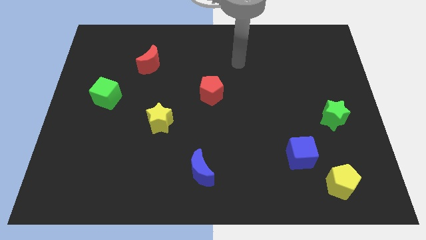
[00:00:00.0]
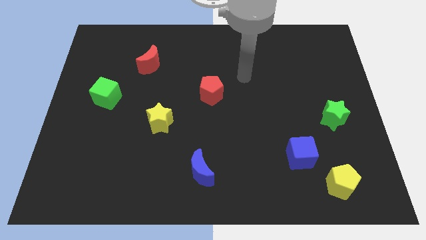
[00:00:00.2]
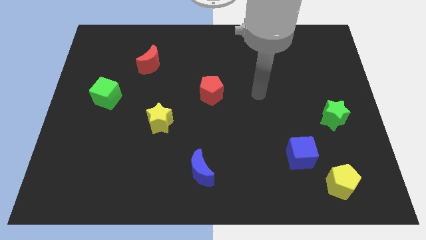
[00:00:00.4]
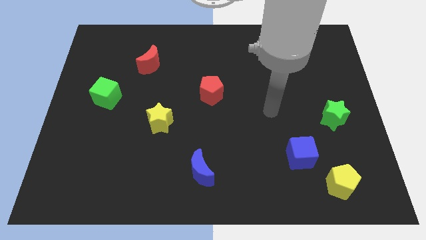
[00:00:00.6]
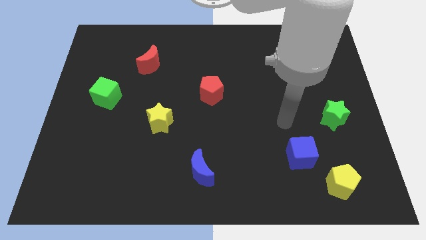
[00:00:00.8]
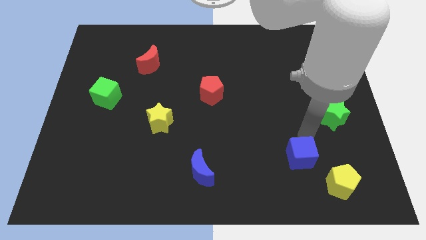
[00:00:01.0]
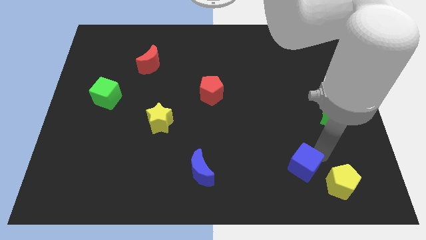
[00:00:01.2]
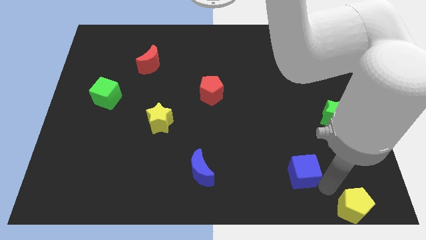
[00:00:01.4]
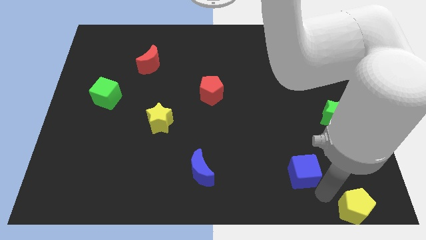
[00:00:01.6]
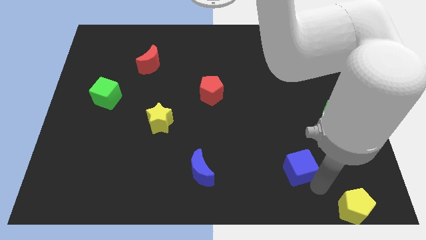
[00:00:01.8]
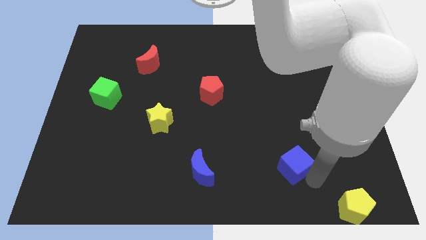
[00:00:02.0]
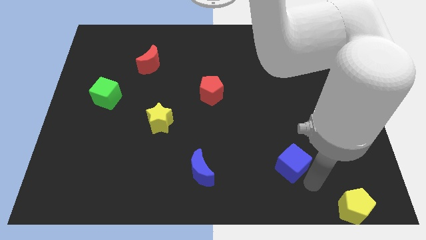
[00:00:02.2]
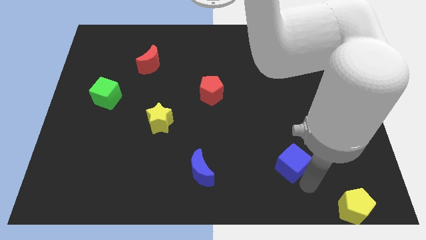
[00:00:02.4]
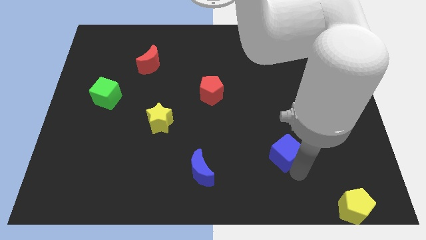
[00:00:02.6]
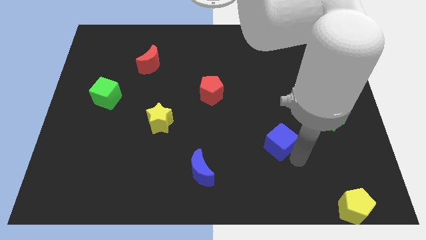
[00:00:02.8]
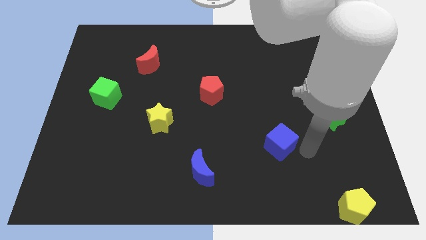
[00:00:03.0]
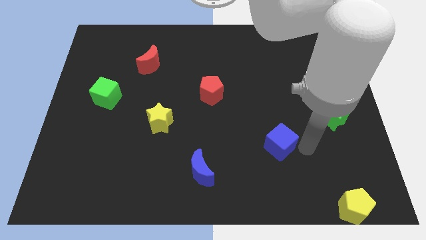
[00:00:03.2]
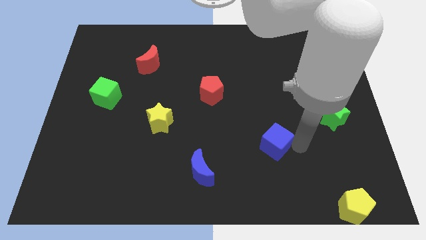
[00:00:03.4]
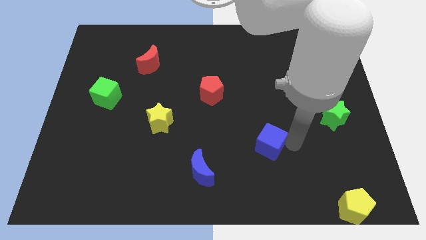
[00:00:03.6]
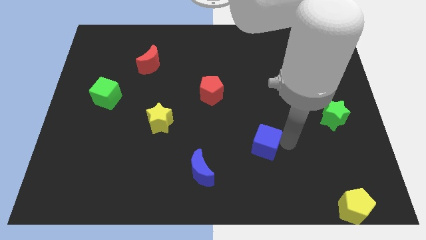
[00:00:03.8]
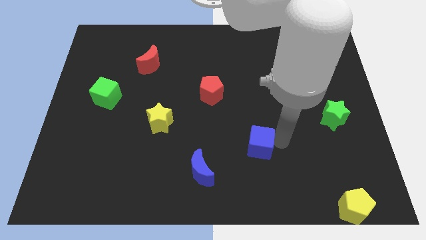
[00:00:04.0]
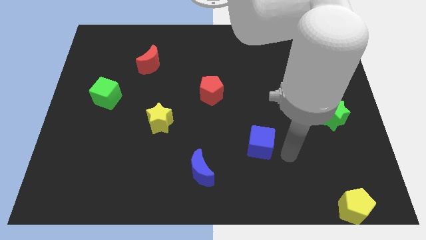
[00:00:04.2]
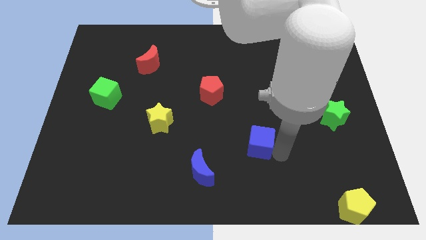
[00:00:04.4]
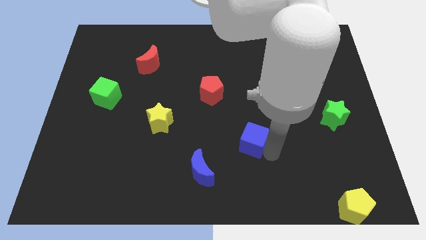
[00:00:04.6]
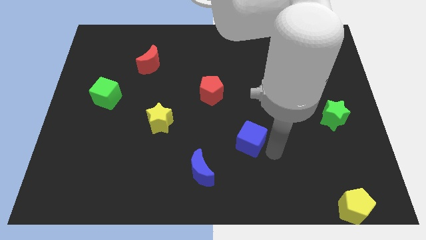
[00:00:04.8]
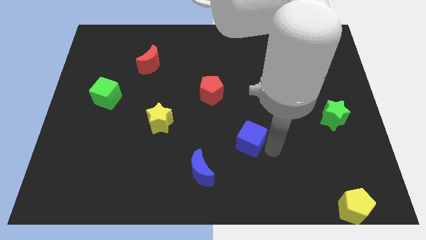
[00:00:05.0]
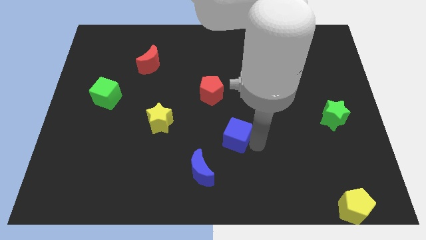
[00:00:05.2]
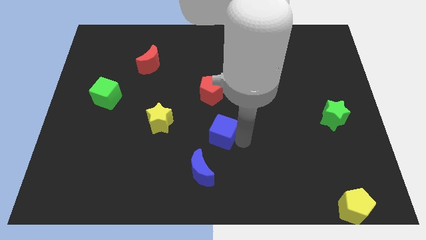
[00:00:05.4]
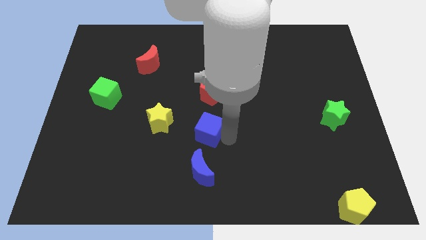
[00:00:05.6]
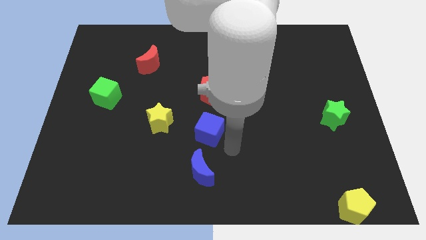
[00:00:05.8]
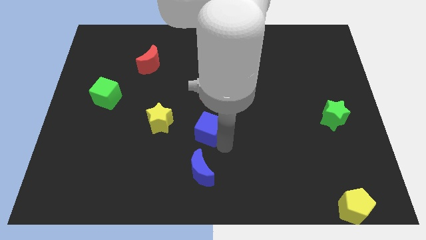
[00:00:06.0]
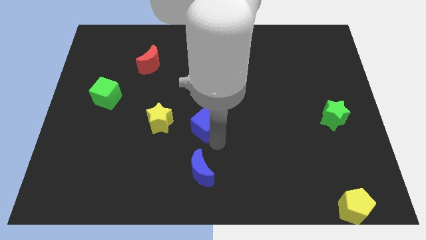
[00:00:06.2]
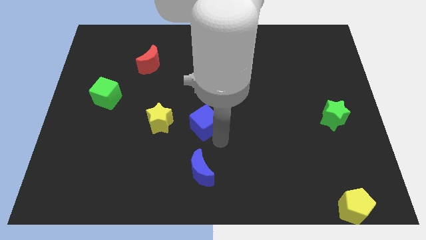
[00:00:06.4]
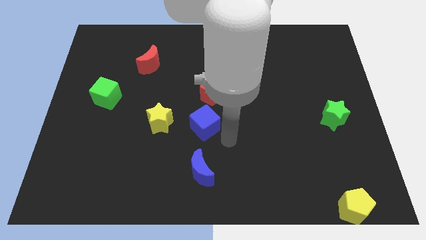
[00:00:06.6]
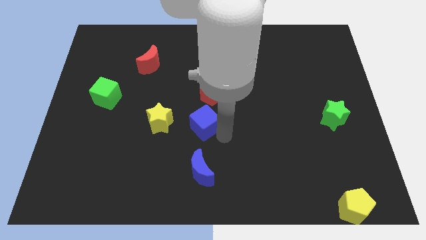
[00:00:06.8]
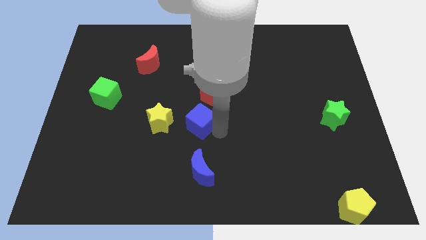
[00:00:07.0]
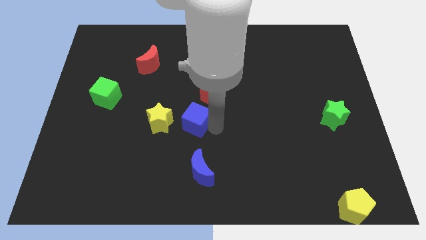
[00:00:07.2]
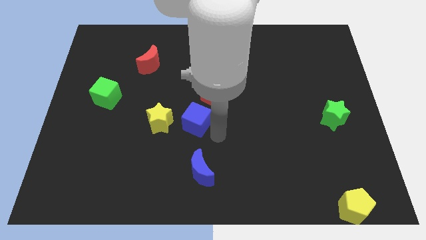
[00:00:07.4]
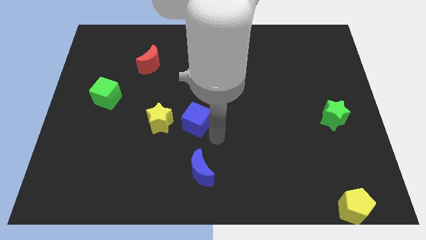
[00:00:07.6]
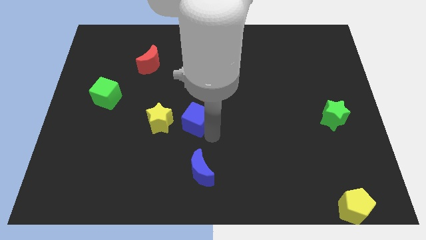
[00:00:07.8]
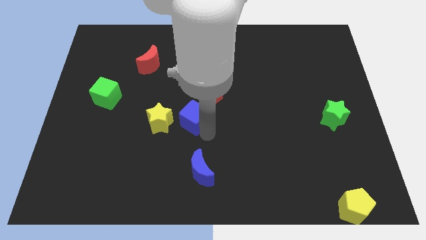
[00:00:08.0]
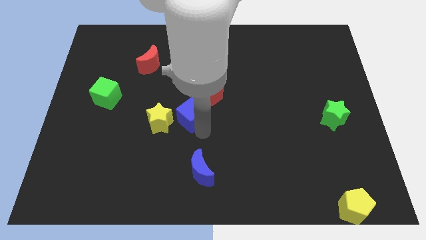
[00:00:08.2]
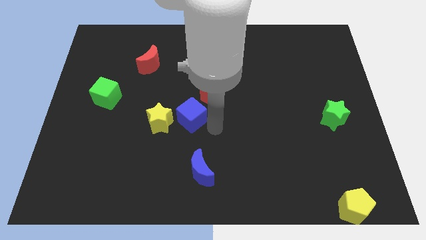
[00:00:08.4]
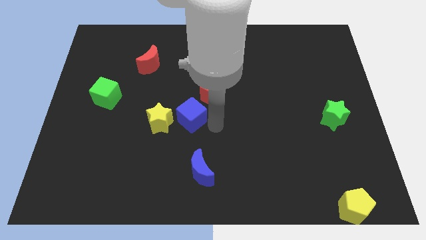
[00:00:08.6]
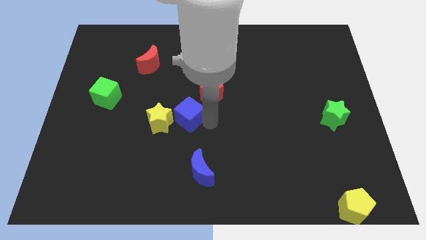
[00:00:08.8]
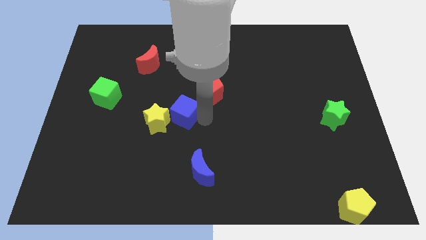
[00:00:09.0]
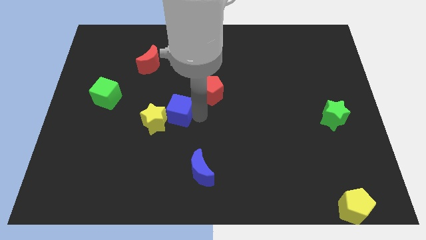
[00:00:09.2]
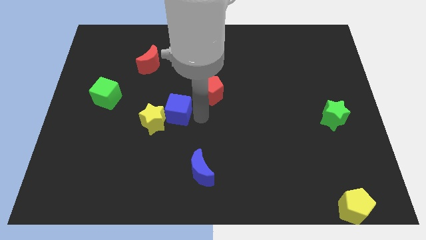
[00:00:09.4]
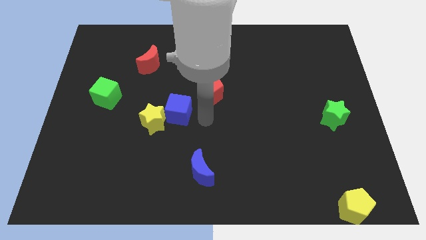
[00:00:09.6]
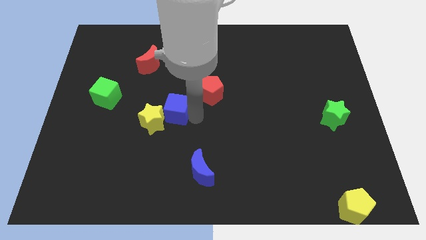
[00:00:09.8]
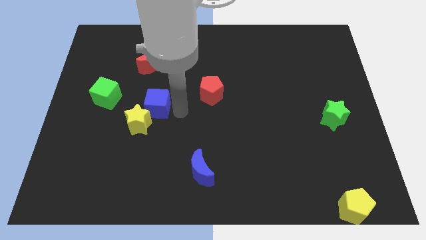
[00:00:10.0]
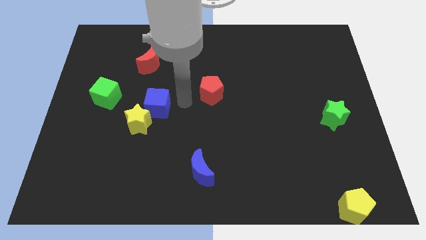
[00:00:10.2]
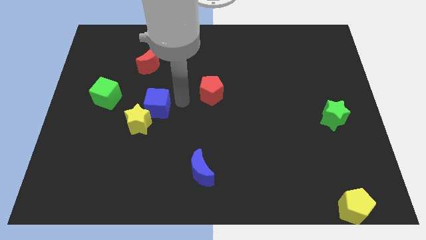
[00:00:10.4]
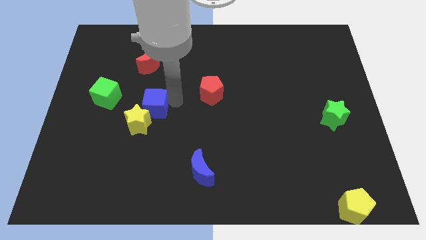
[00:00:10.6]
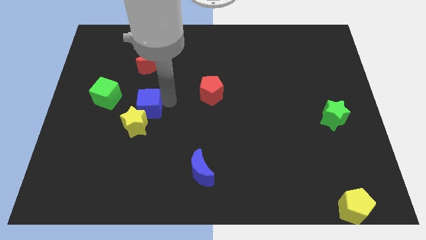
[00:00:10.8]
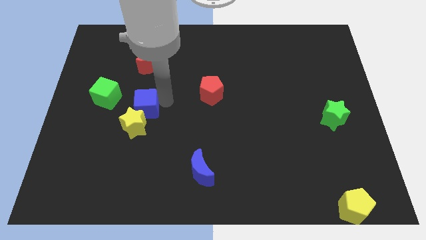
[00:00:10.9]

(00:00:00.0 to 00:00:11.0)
move the blue cube to the bottom right side of the green cube

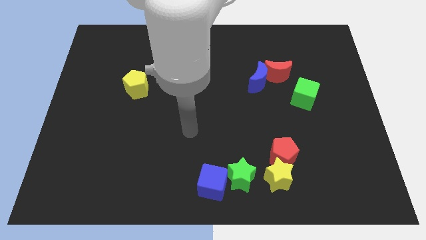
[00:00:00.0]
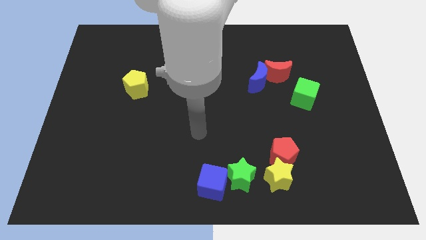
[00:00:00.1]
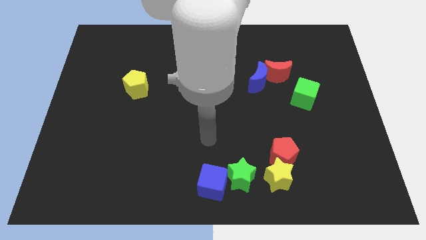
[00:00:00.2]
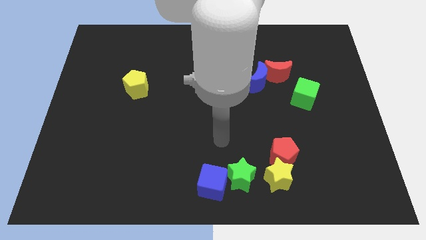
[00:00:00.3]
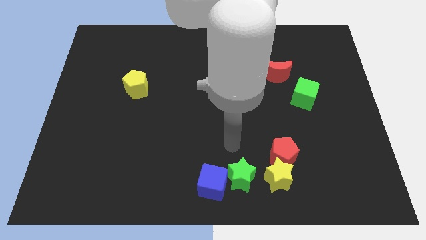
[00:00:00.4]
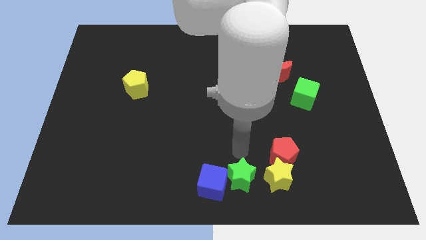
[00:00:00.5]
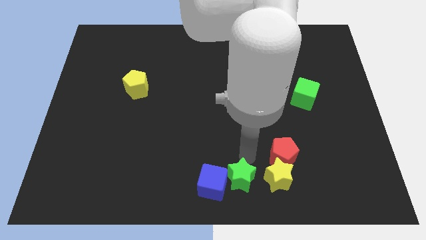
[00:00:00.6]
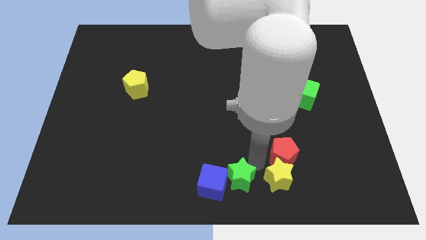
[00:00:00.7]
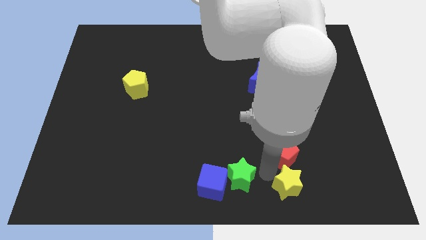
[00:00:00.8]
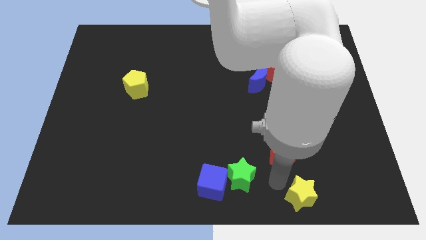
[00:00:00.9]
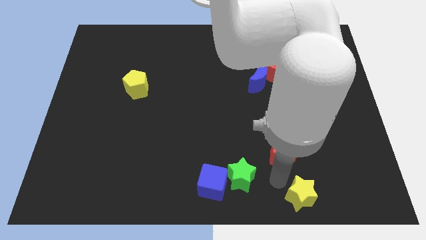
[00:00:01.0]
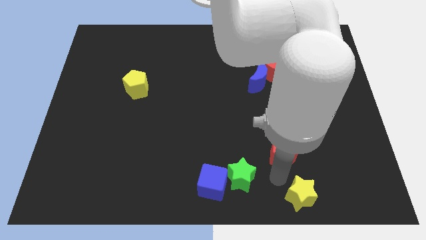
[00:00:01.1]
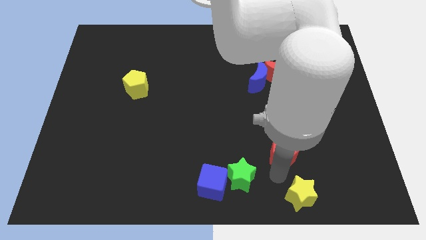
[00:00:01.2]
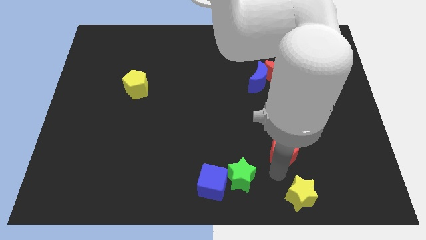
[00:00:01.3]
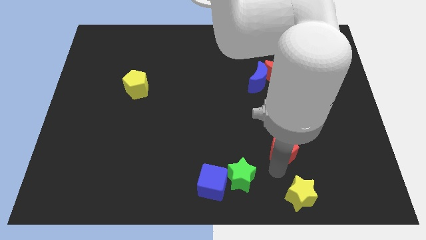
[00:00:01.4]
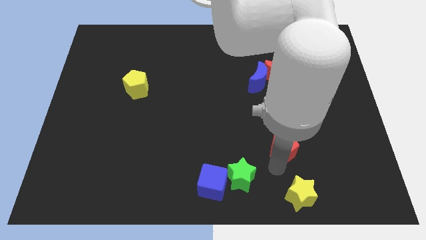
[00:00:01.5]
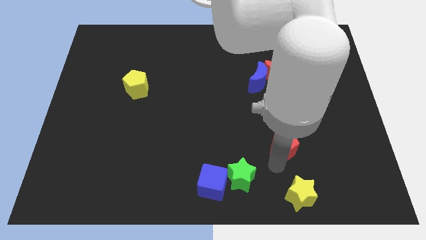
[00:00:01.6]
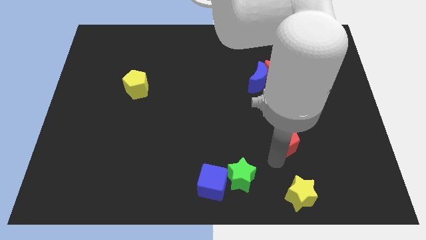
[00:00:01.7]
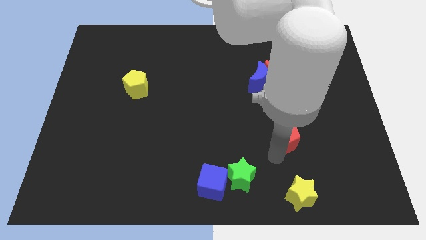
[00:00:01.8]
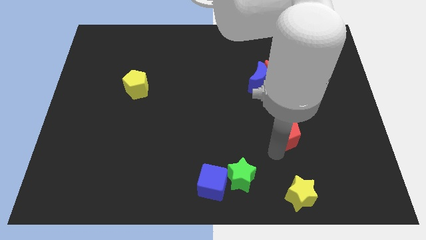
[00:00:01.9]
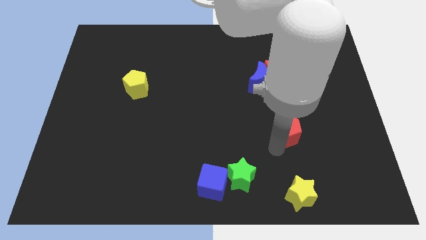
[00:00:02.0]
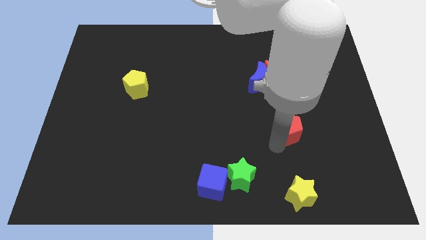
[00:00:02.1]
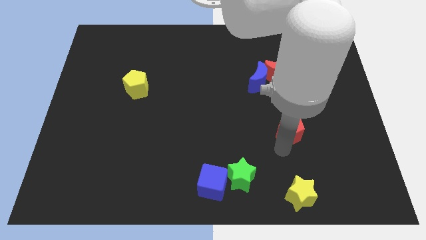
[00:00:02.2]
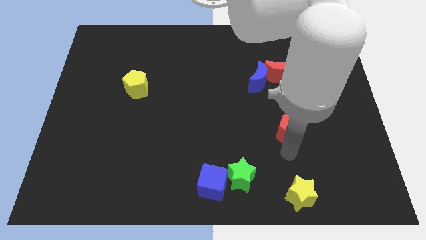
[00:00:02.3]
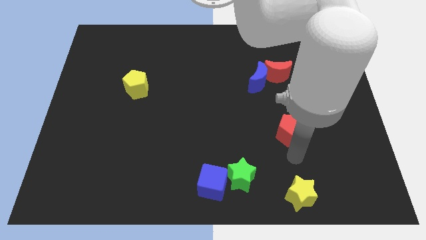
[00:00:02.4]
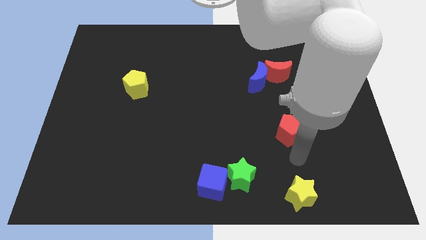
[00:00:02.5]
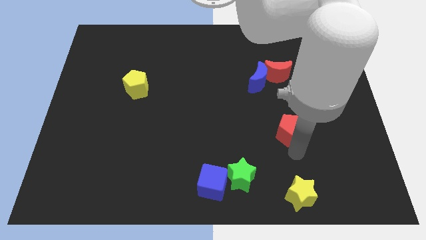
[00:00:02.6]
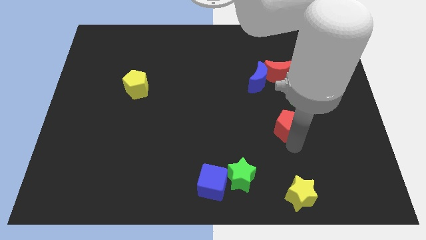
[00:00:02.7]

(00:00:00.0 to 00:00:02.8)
push the red pentagon to the bottom of the red moon
